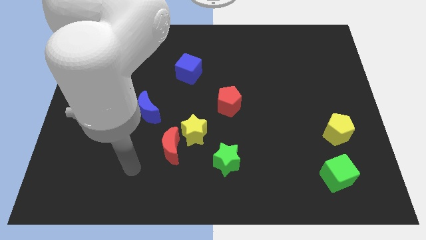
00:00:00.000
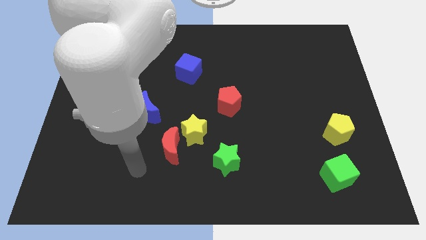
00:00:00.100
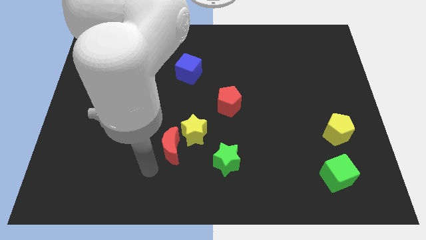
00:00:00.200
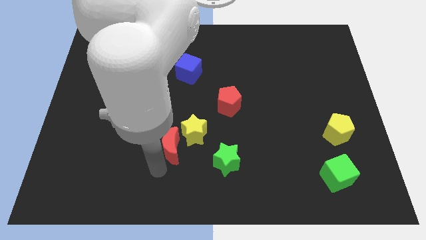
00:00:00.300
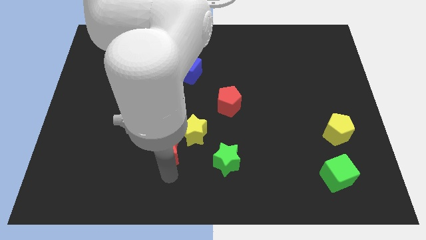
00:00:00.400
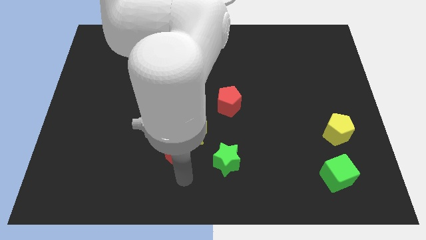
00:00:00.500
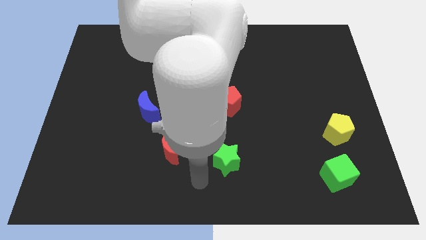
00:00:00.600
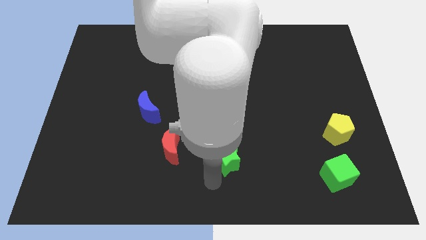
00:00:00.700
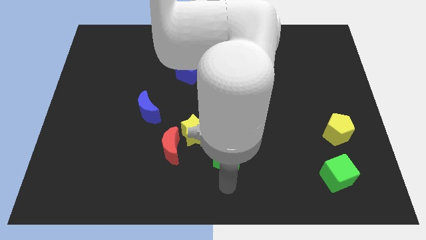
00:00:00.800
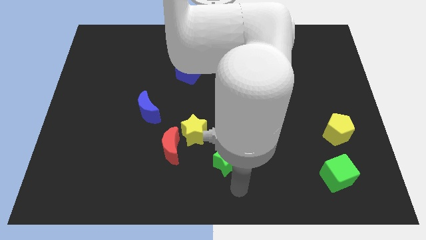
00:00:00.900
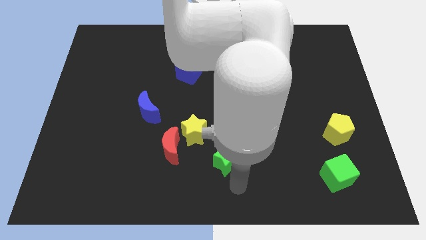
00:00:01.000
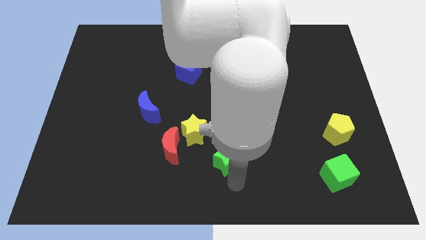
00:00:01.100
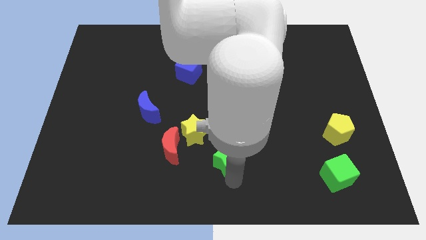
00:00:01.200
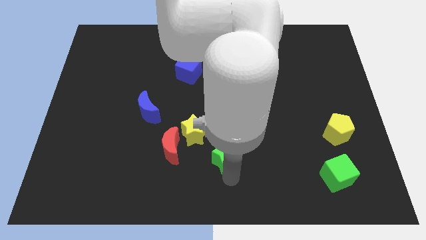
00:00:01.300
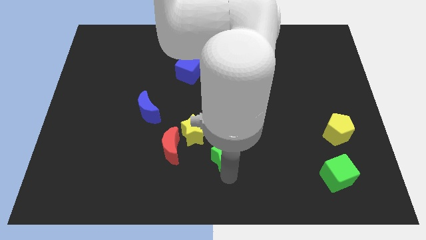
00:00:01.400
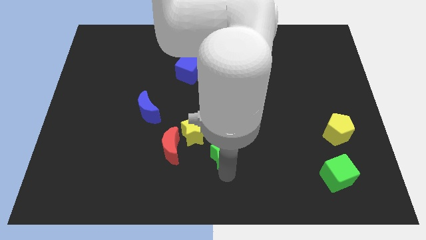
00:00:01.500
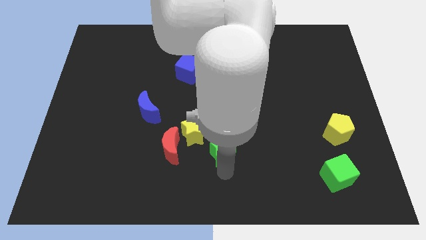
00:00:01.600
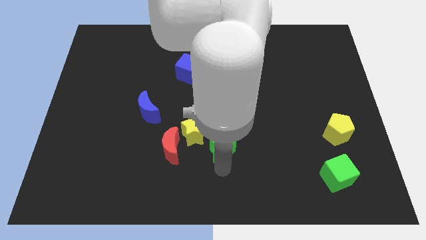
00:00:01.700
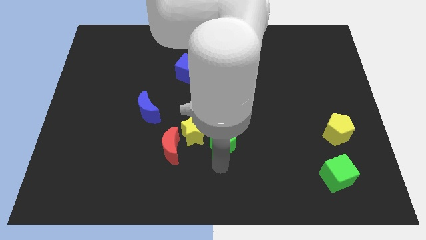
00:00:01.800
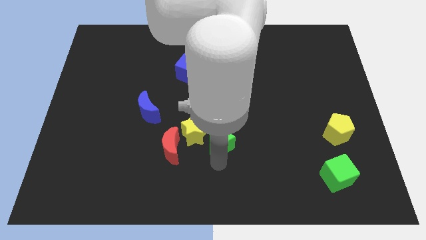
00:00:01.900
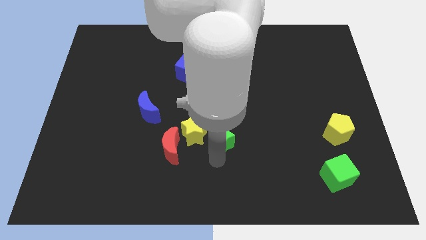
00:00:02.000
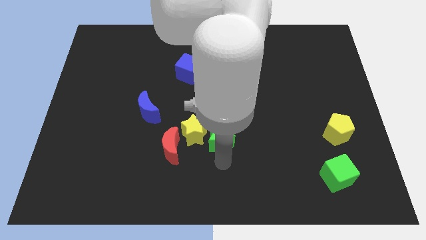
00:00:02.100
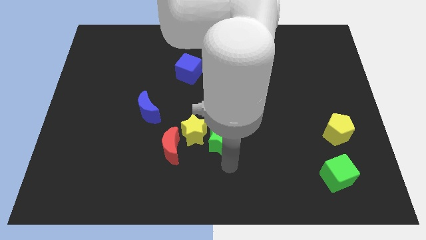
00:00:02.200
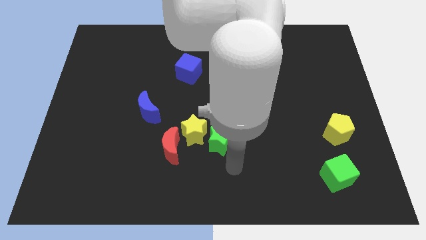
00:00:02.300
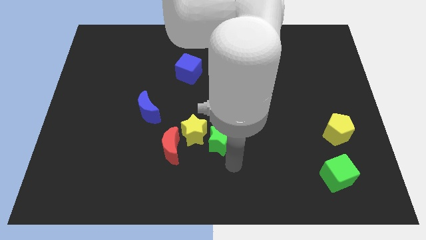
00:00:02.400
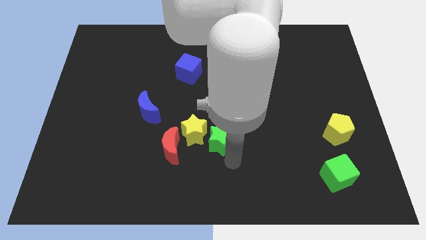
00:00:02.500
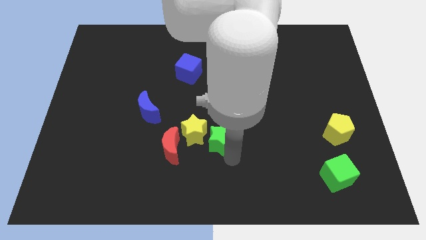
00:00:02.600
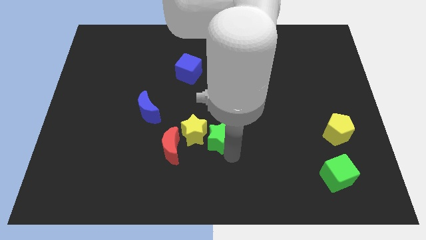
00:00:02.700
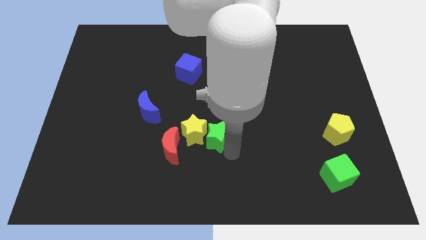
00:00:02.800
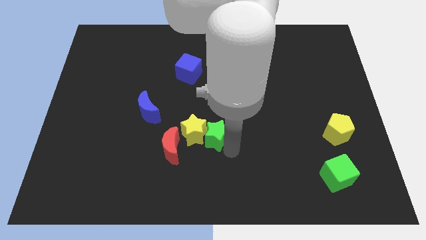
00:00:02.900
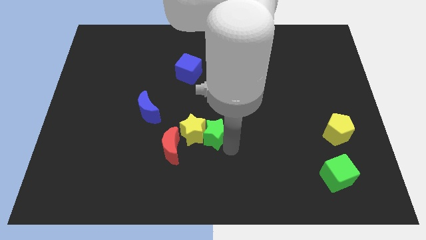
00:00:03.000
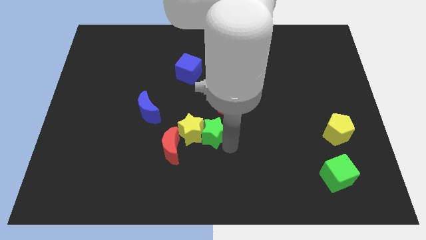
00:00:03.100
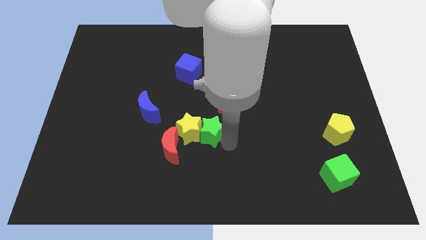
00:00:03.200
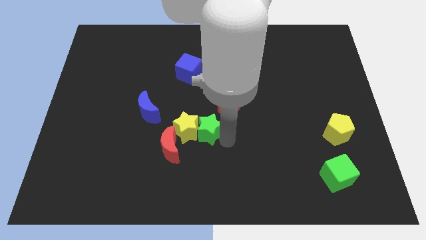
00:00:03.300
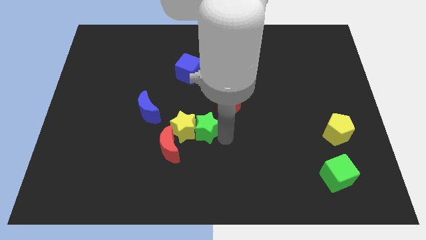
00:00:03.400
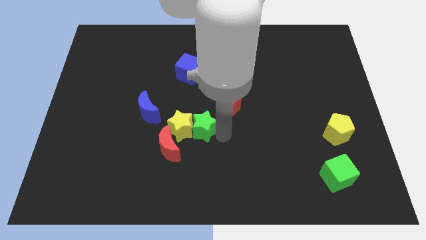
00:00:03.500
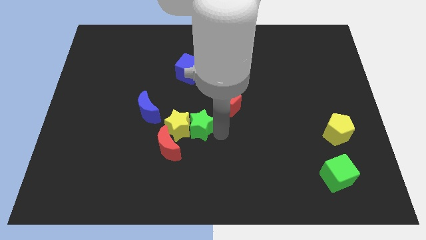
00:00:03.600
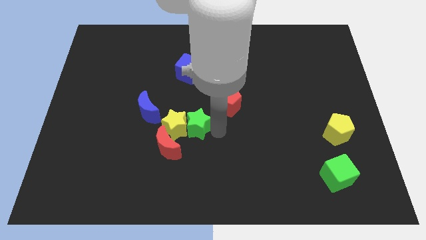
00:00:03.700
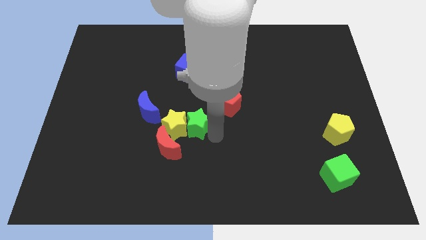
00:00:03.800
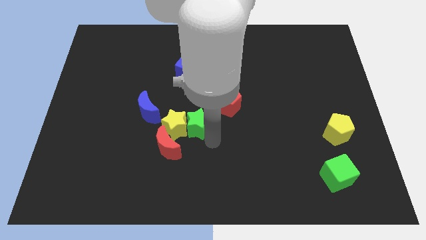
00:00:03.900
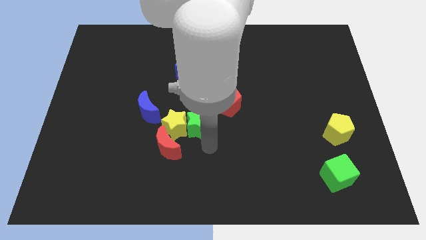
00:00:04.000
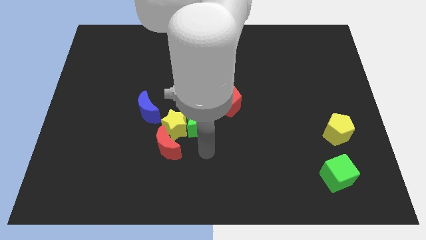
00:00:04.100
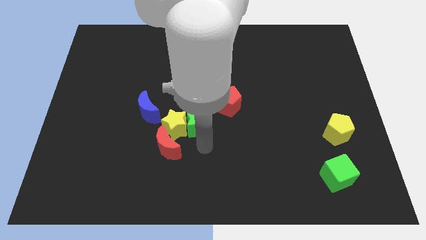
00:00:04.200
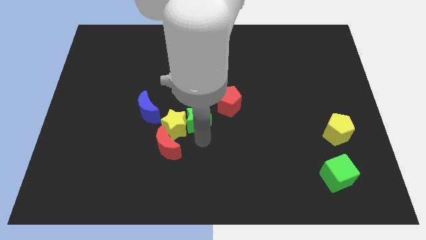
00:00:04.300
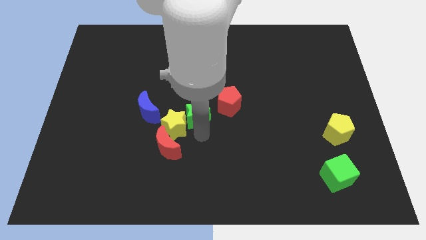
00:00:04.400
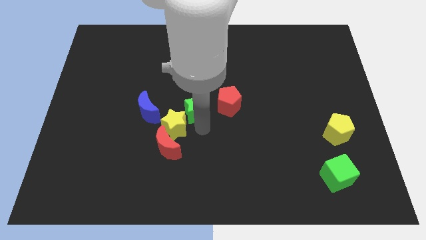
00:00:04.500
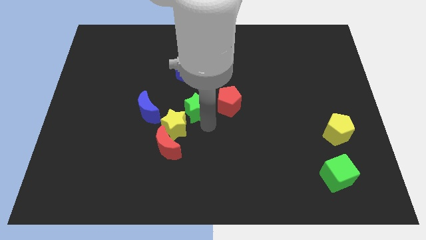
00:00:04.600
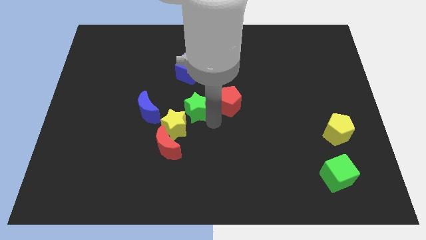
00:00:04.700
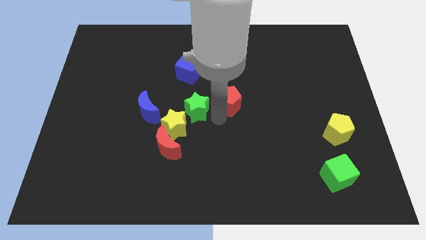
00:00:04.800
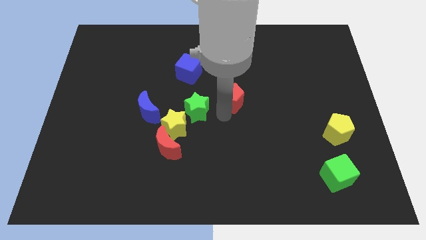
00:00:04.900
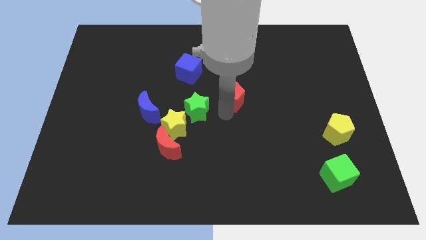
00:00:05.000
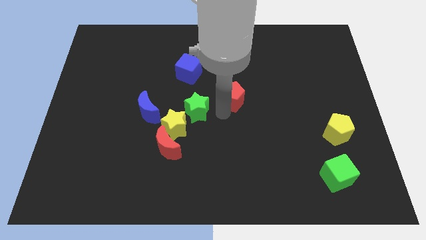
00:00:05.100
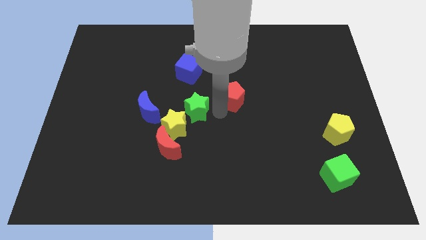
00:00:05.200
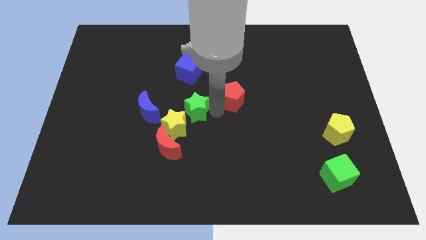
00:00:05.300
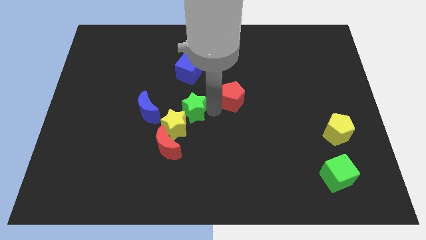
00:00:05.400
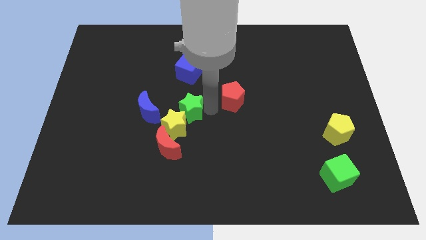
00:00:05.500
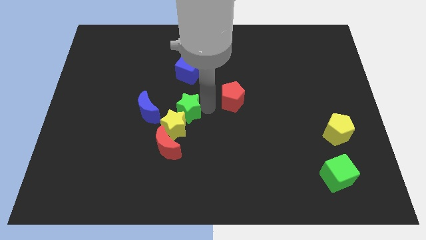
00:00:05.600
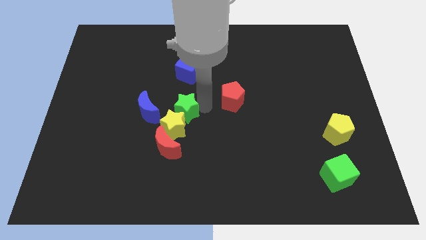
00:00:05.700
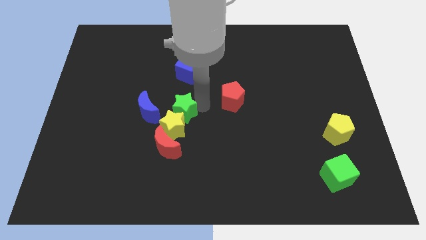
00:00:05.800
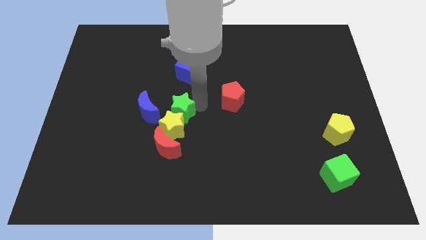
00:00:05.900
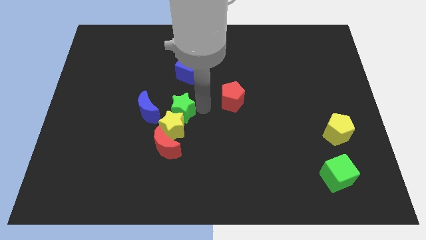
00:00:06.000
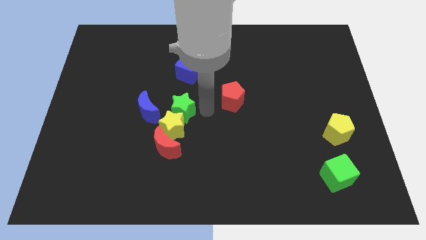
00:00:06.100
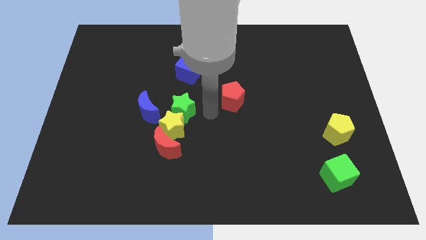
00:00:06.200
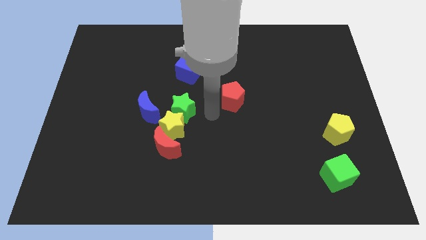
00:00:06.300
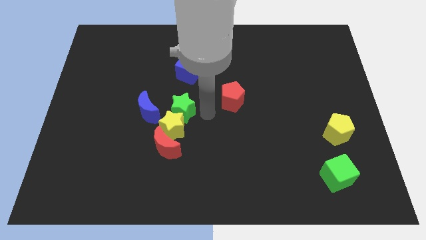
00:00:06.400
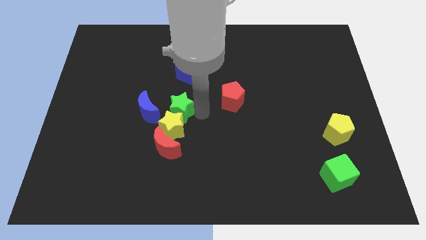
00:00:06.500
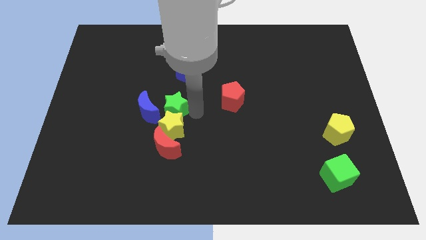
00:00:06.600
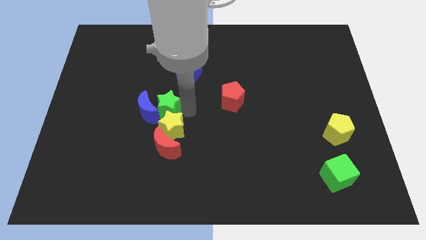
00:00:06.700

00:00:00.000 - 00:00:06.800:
push the green star to the blue moon
